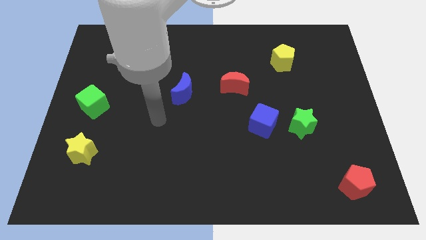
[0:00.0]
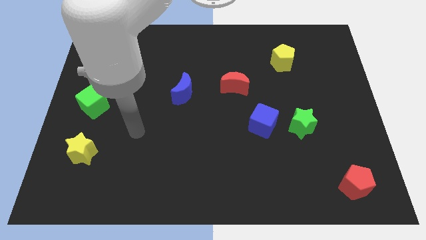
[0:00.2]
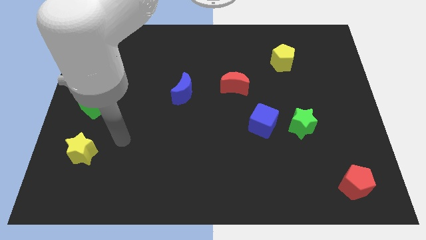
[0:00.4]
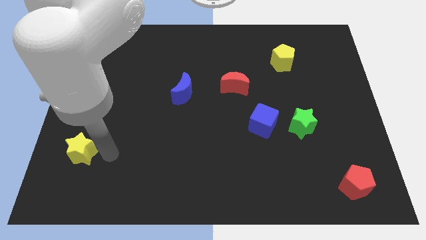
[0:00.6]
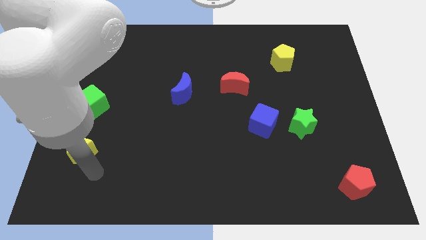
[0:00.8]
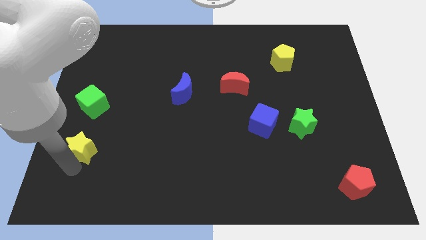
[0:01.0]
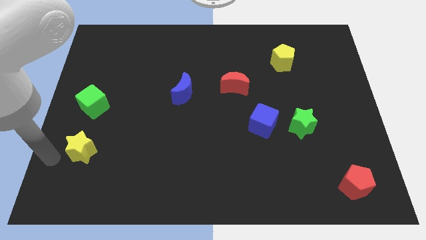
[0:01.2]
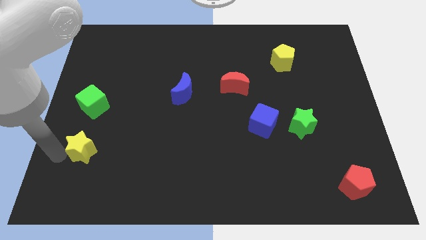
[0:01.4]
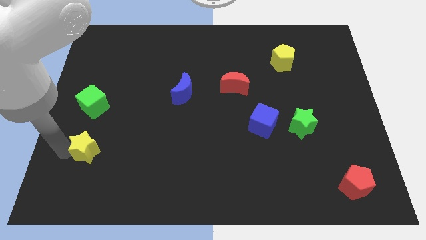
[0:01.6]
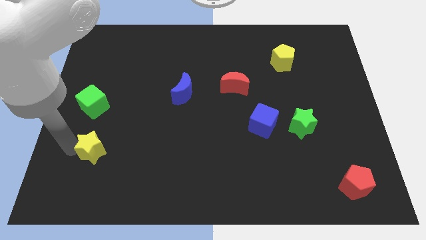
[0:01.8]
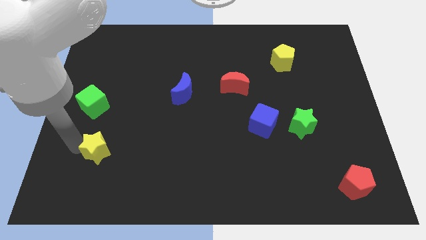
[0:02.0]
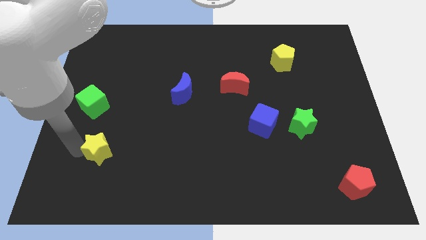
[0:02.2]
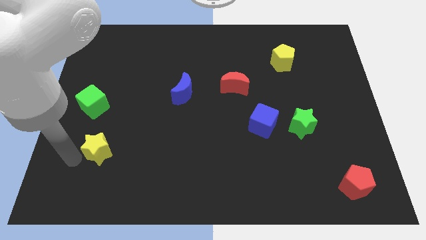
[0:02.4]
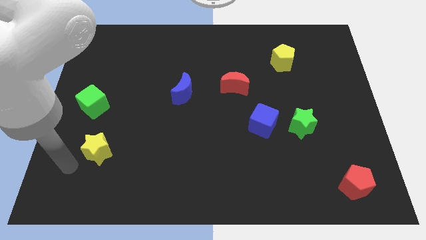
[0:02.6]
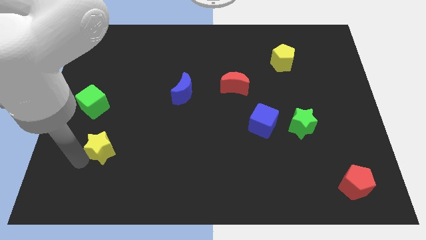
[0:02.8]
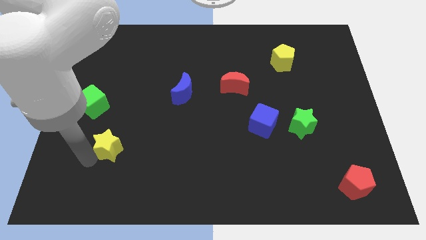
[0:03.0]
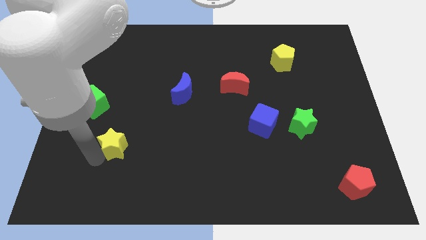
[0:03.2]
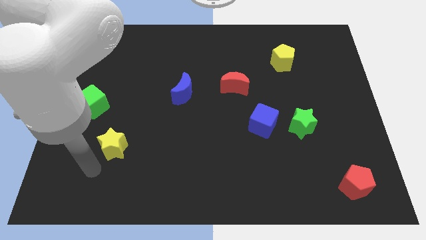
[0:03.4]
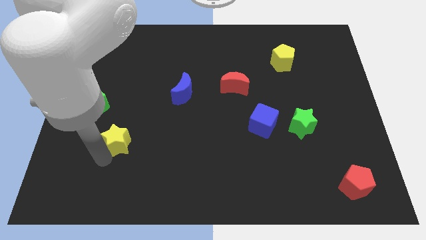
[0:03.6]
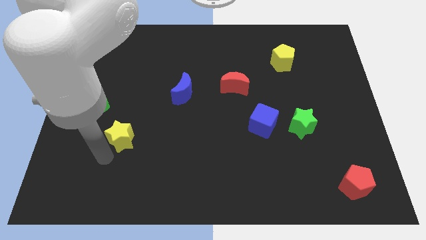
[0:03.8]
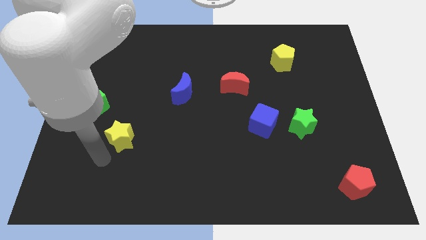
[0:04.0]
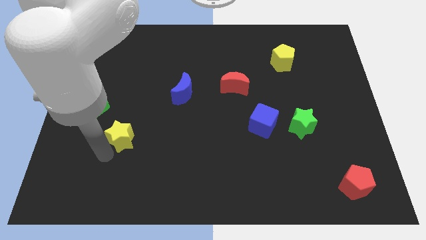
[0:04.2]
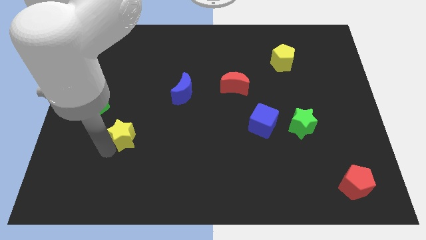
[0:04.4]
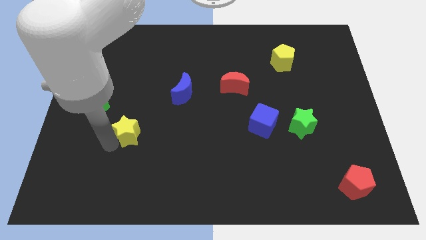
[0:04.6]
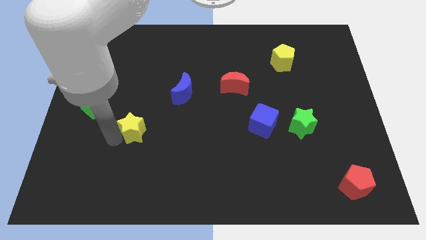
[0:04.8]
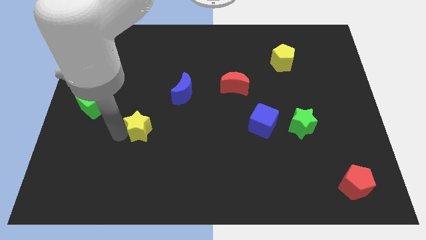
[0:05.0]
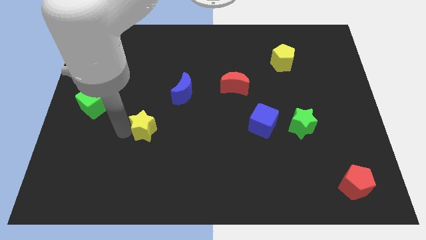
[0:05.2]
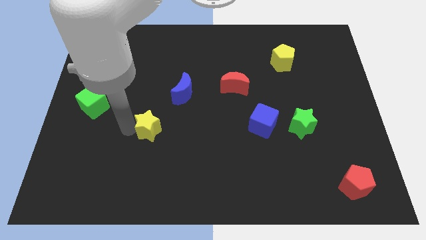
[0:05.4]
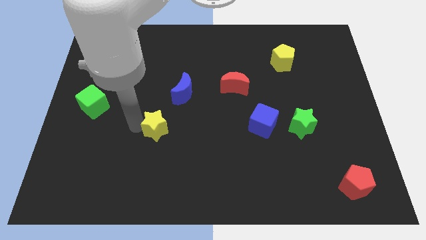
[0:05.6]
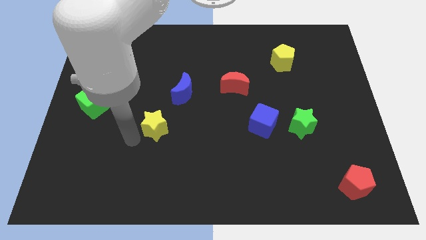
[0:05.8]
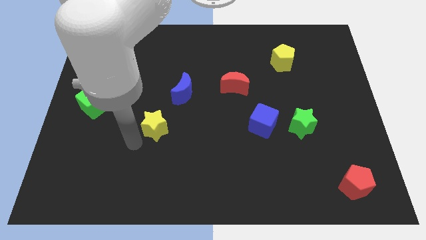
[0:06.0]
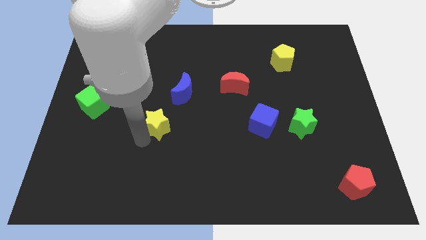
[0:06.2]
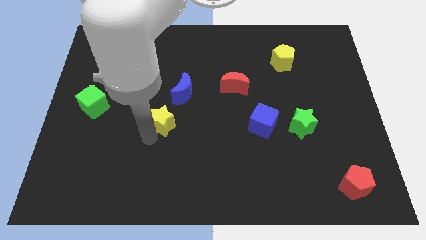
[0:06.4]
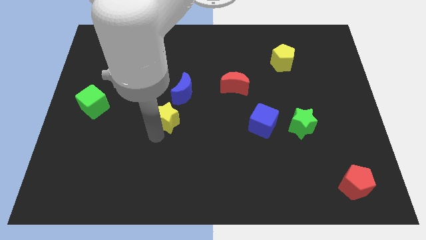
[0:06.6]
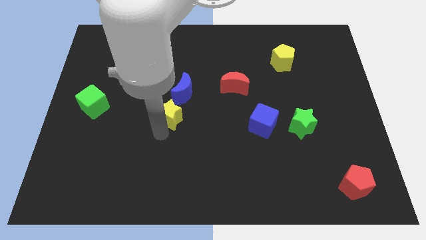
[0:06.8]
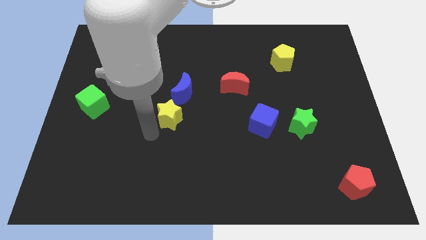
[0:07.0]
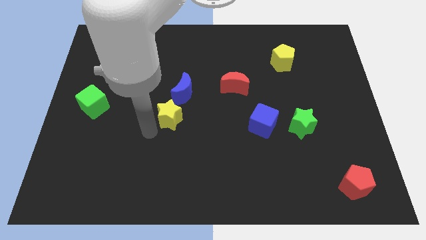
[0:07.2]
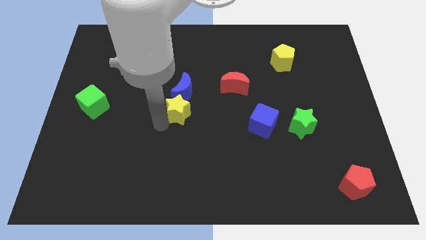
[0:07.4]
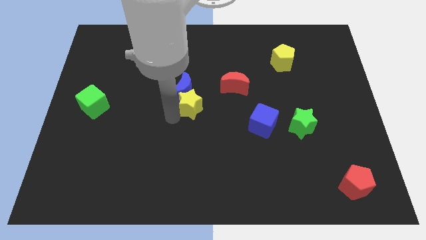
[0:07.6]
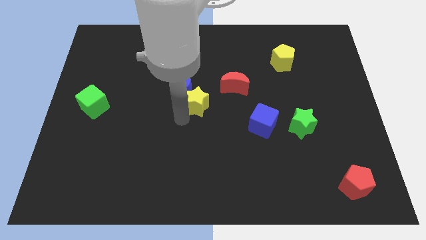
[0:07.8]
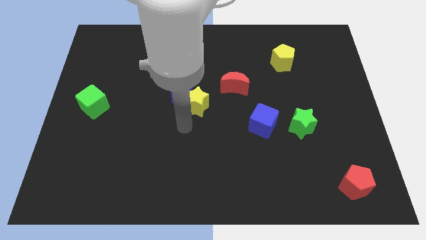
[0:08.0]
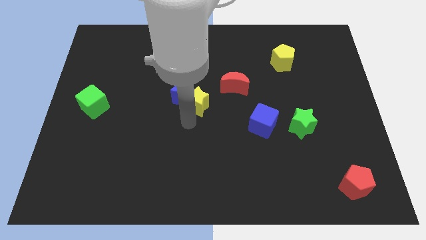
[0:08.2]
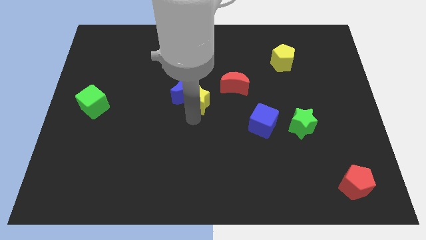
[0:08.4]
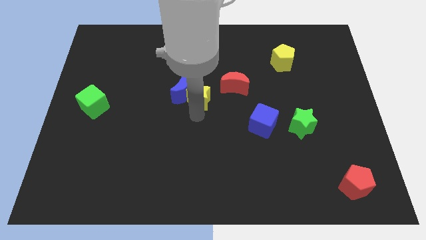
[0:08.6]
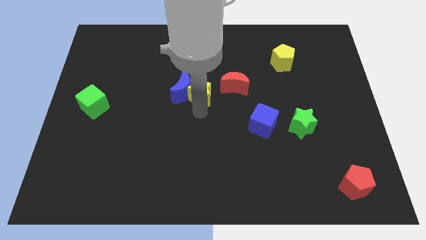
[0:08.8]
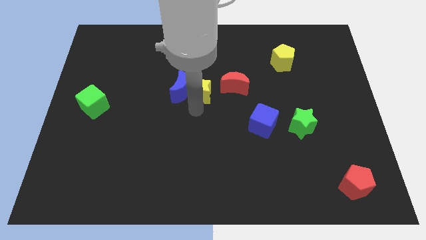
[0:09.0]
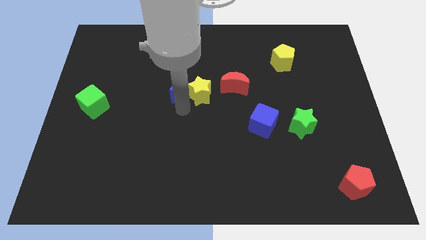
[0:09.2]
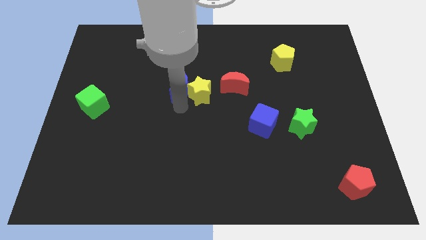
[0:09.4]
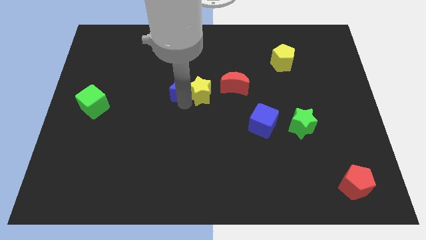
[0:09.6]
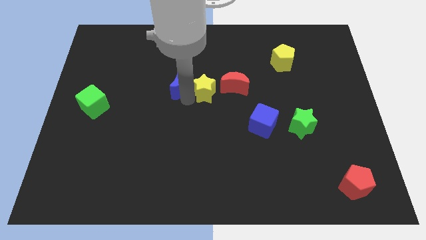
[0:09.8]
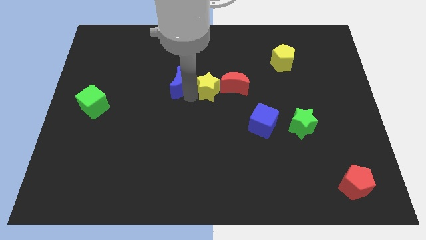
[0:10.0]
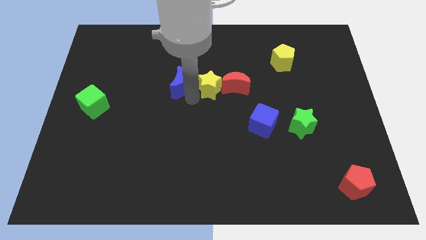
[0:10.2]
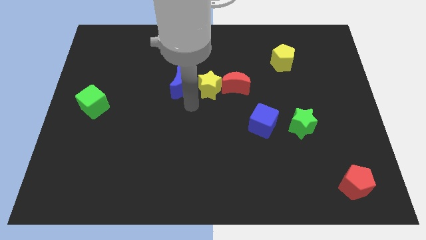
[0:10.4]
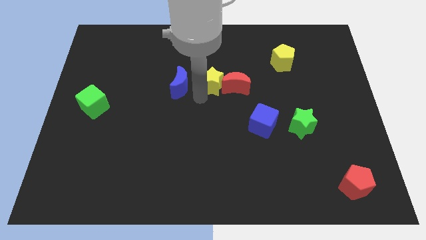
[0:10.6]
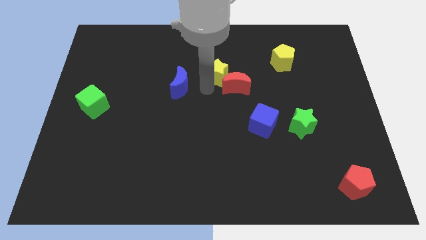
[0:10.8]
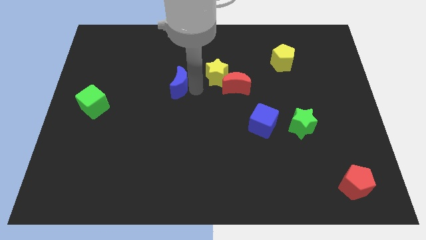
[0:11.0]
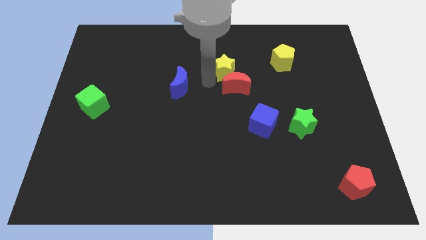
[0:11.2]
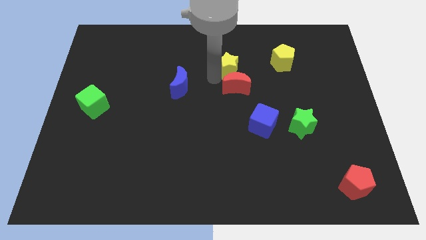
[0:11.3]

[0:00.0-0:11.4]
push the yellow star to the left side of the yellow pentagon
